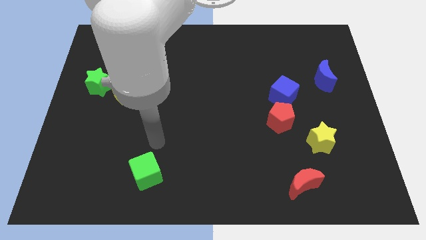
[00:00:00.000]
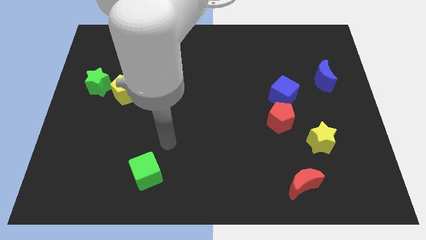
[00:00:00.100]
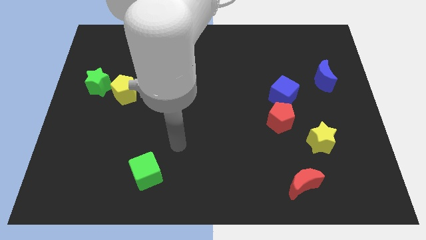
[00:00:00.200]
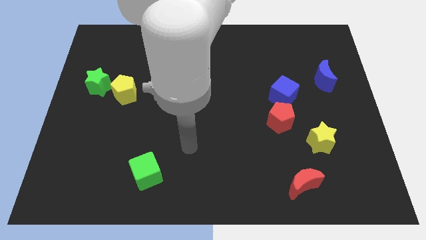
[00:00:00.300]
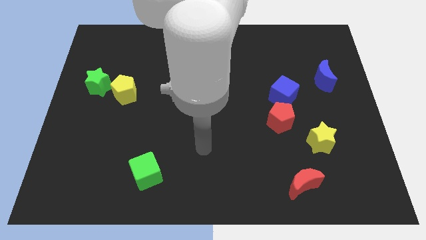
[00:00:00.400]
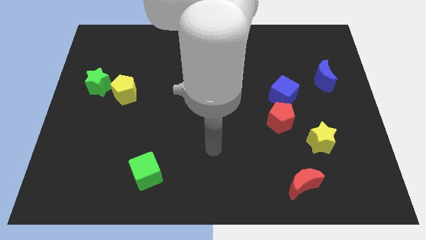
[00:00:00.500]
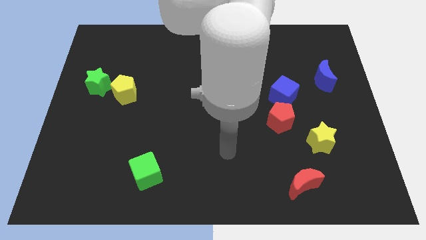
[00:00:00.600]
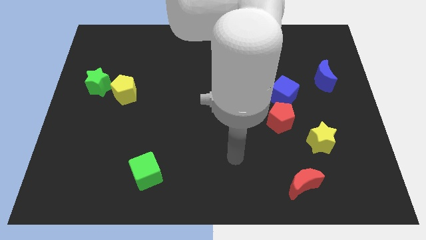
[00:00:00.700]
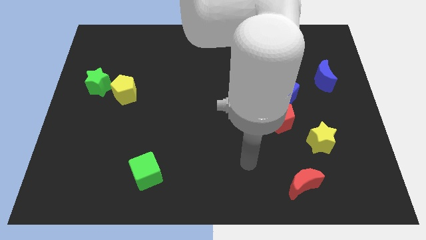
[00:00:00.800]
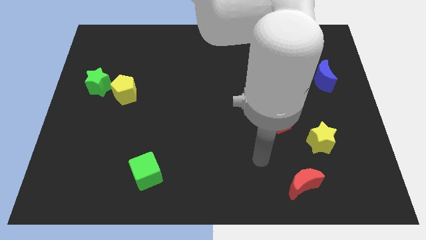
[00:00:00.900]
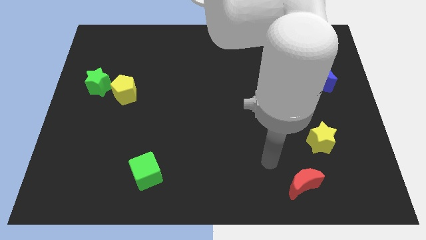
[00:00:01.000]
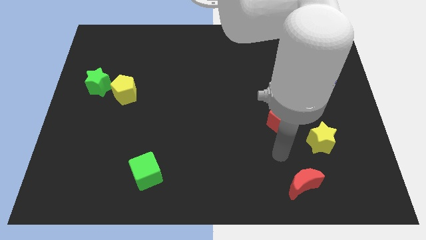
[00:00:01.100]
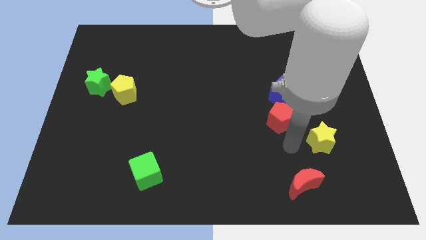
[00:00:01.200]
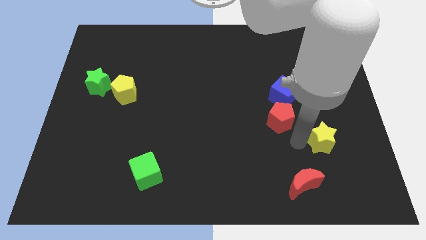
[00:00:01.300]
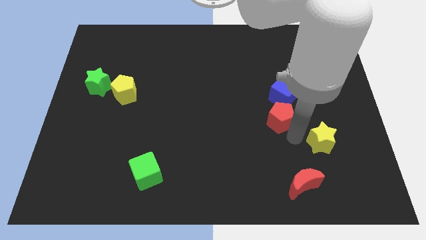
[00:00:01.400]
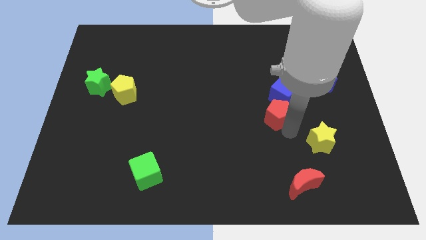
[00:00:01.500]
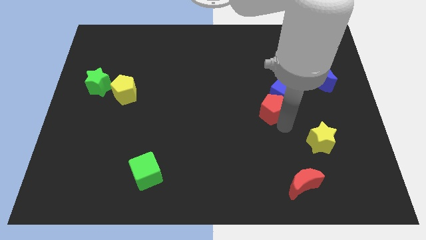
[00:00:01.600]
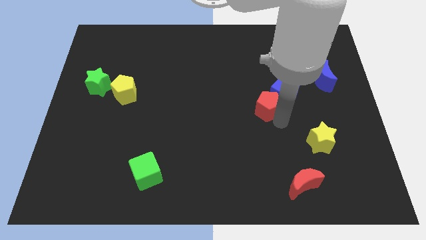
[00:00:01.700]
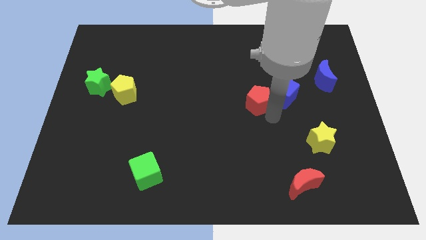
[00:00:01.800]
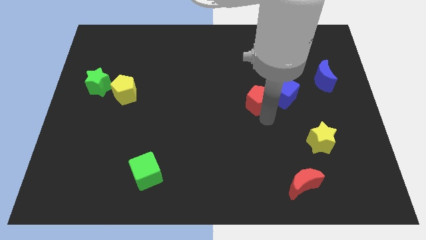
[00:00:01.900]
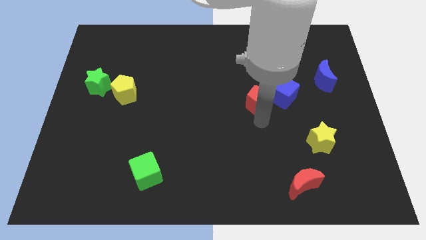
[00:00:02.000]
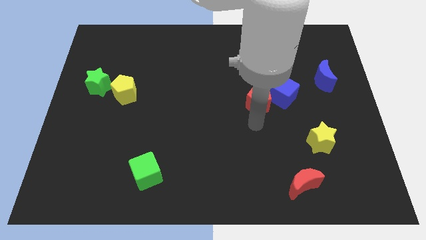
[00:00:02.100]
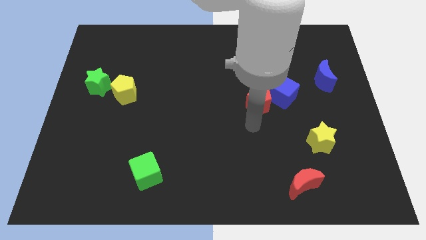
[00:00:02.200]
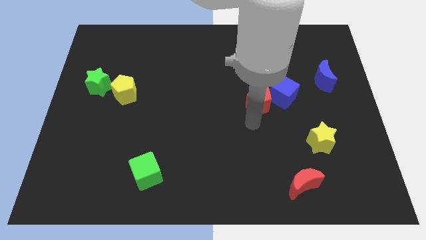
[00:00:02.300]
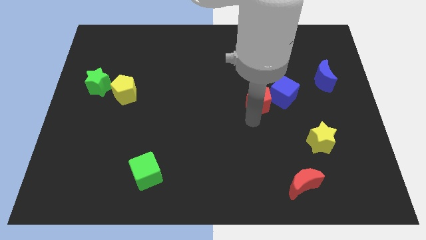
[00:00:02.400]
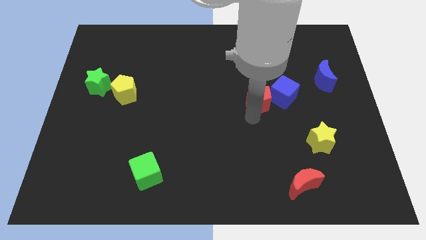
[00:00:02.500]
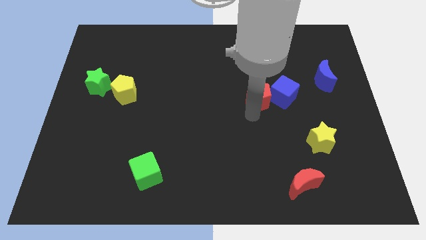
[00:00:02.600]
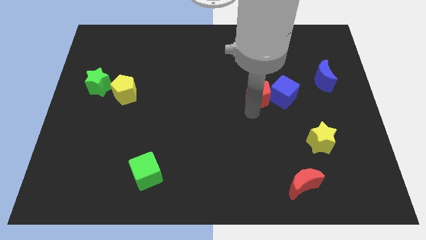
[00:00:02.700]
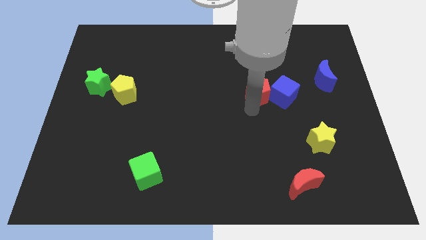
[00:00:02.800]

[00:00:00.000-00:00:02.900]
push the red pentagon a bit upwards

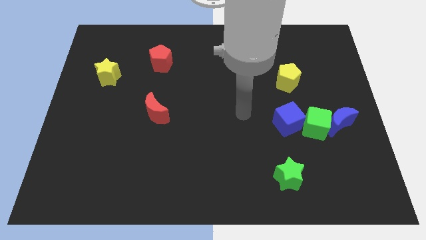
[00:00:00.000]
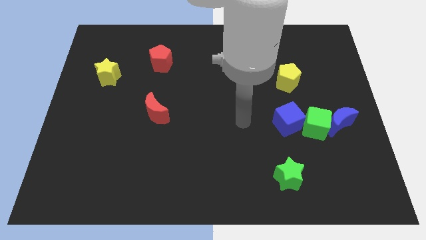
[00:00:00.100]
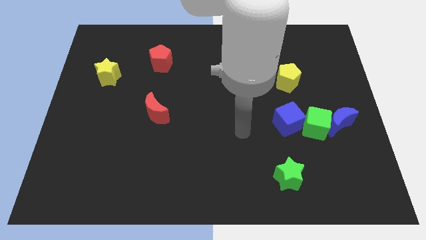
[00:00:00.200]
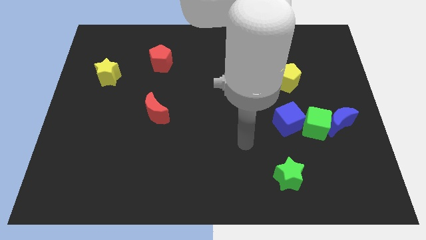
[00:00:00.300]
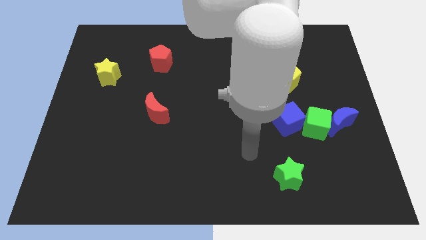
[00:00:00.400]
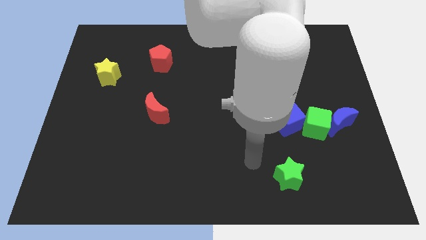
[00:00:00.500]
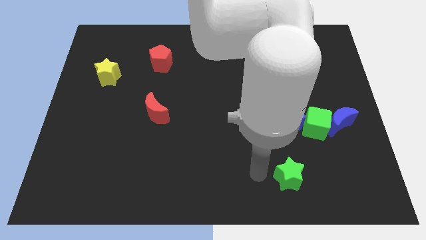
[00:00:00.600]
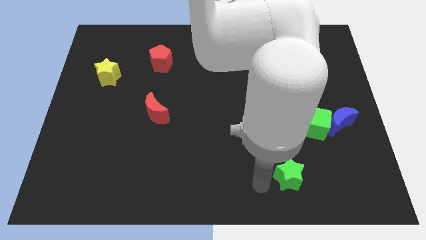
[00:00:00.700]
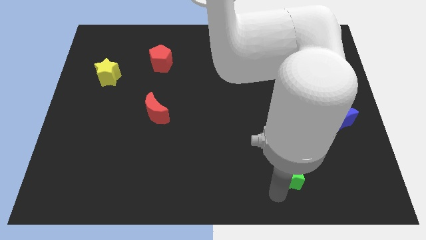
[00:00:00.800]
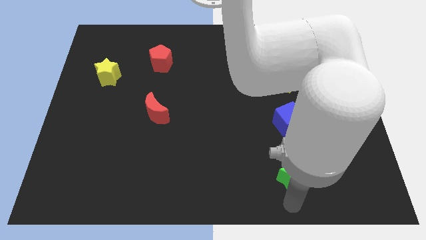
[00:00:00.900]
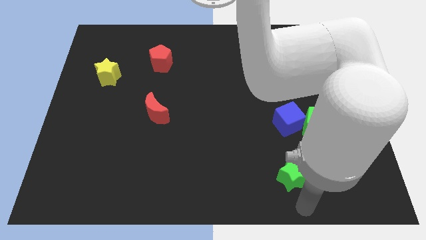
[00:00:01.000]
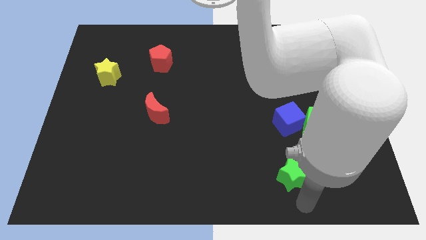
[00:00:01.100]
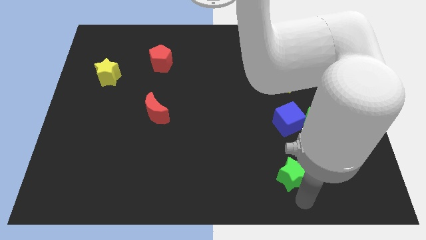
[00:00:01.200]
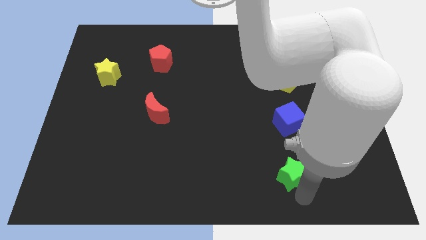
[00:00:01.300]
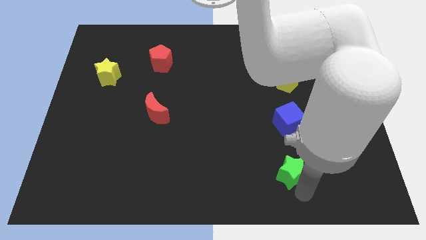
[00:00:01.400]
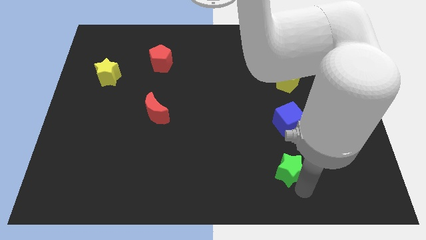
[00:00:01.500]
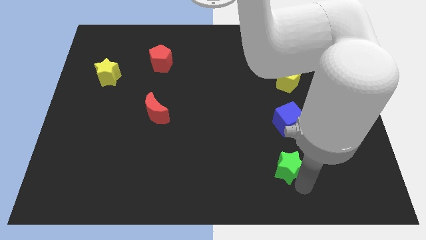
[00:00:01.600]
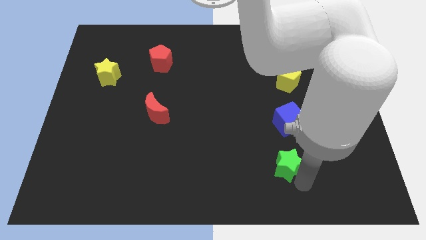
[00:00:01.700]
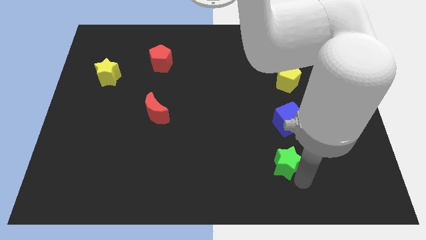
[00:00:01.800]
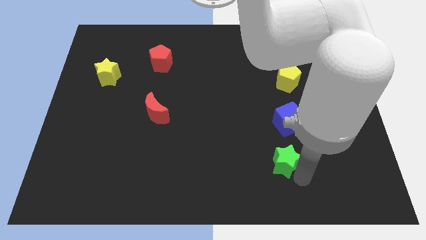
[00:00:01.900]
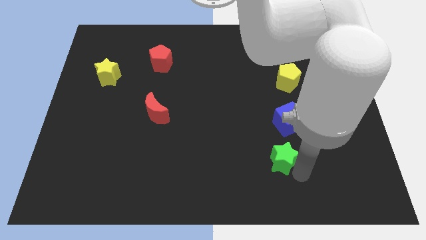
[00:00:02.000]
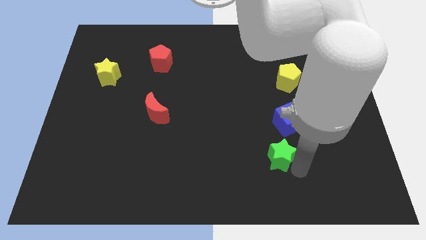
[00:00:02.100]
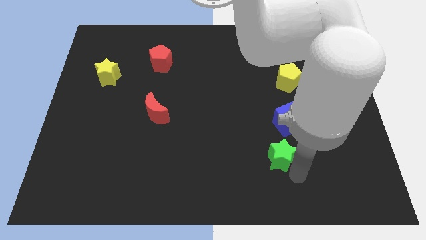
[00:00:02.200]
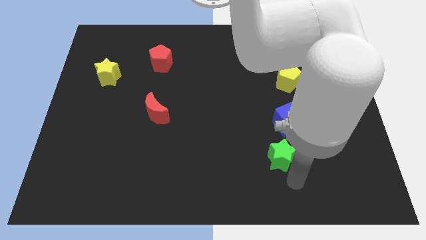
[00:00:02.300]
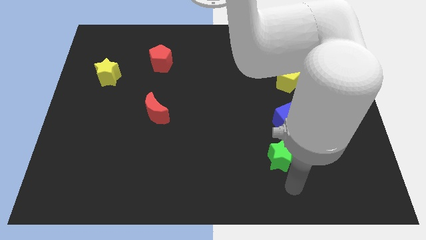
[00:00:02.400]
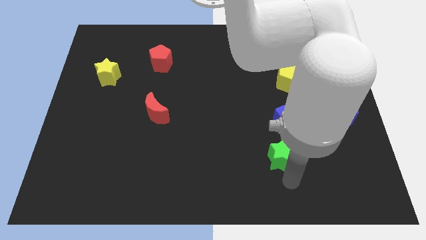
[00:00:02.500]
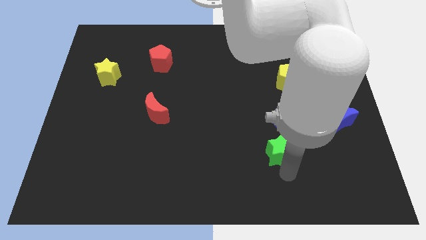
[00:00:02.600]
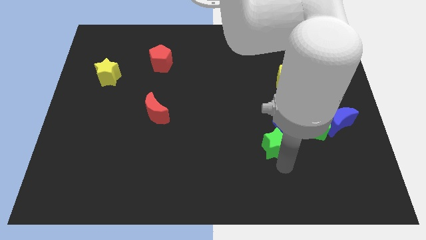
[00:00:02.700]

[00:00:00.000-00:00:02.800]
push the green star a bit upwards

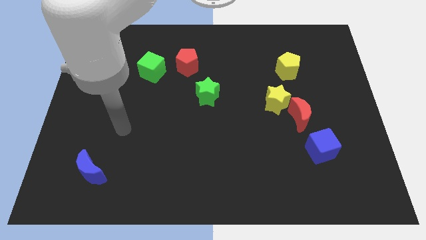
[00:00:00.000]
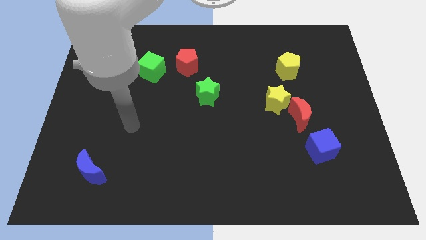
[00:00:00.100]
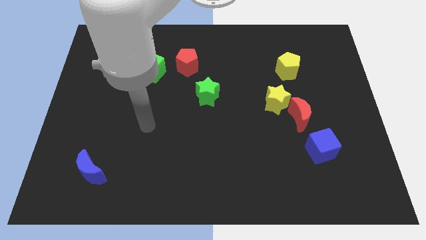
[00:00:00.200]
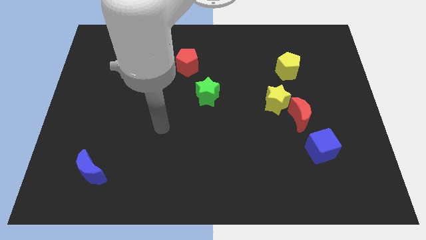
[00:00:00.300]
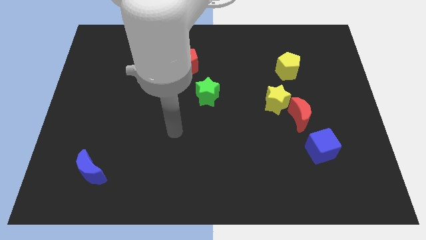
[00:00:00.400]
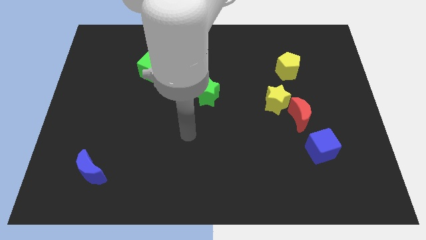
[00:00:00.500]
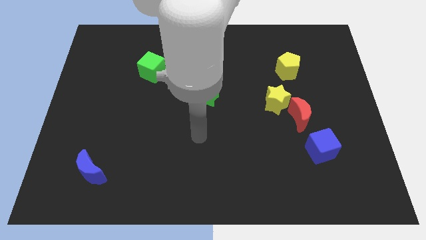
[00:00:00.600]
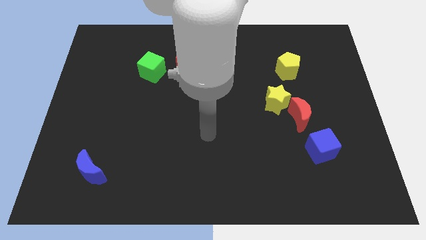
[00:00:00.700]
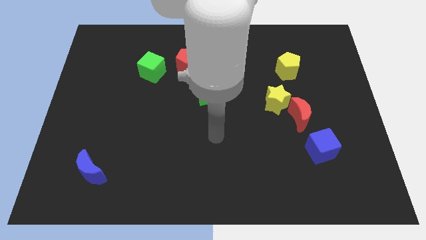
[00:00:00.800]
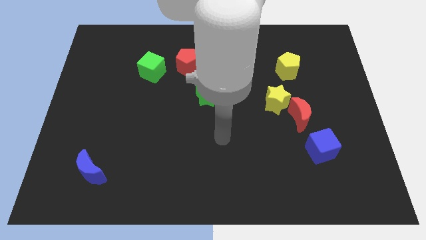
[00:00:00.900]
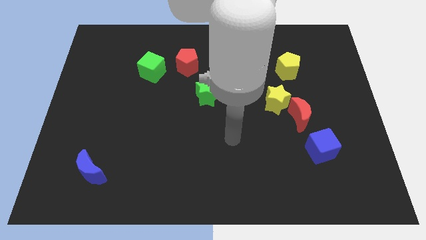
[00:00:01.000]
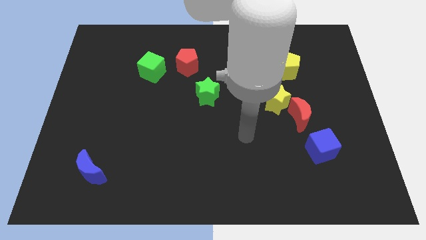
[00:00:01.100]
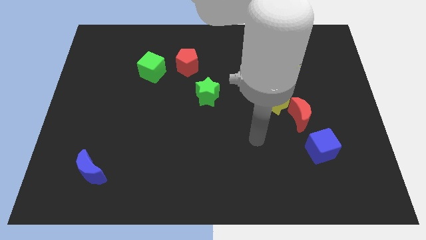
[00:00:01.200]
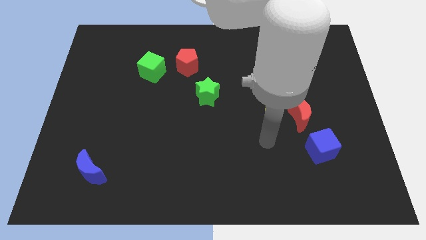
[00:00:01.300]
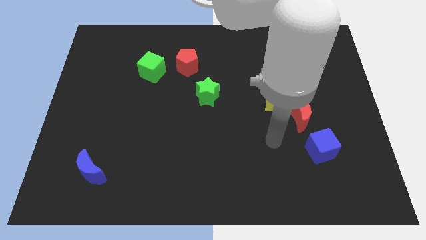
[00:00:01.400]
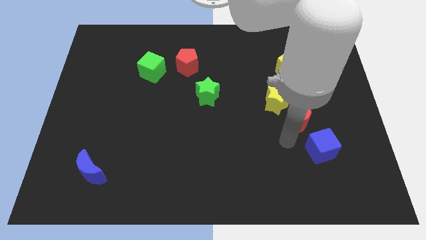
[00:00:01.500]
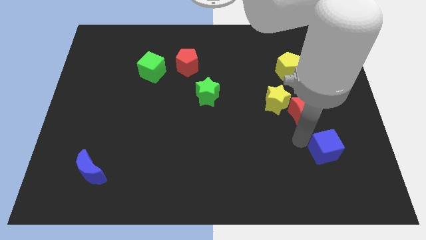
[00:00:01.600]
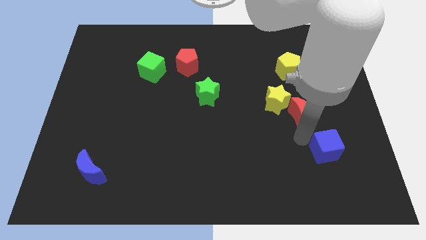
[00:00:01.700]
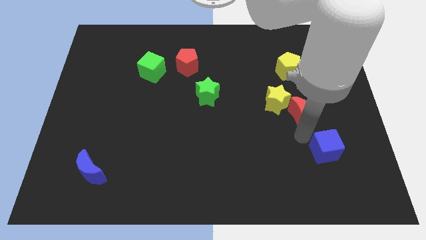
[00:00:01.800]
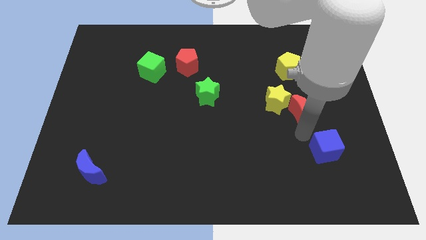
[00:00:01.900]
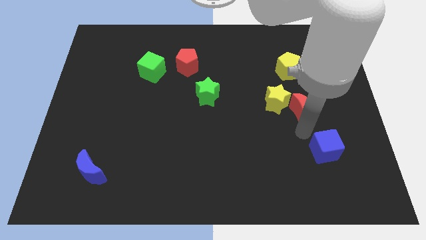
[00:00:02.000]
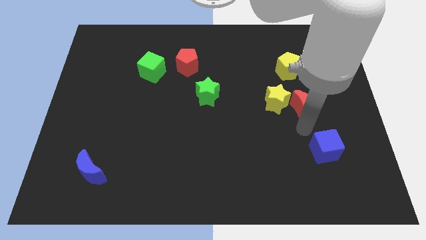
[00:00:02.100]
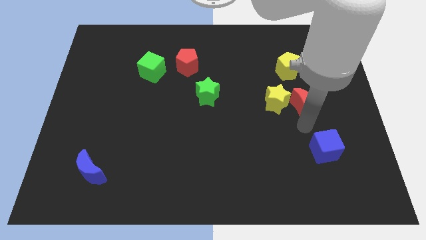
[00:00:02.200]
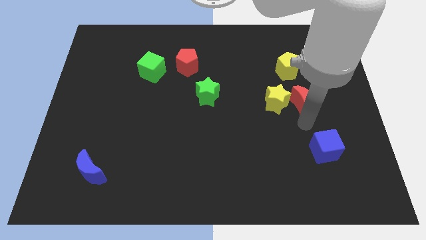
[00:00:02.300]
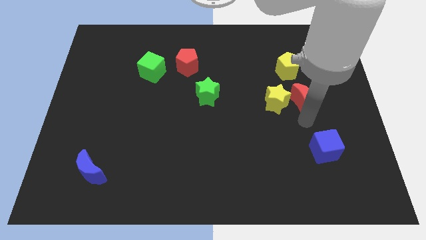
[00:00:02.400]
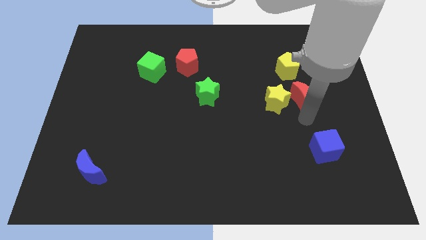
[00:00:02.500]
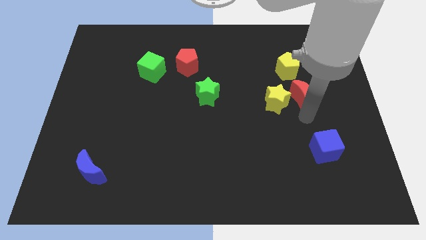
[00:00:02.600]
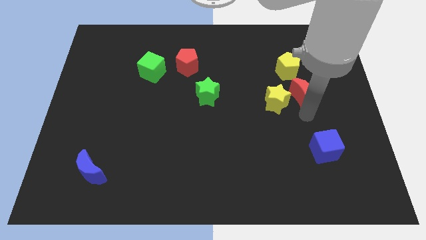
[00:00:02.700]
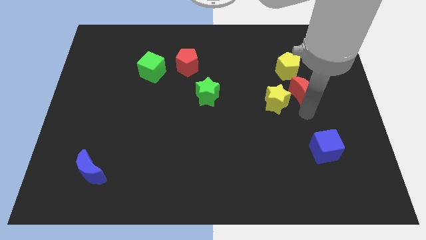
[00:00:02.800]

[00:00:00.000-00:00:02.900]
slightly move the red moon upwards
